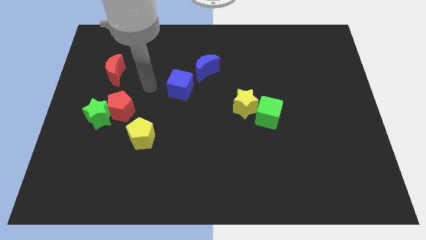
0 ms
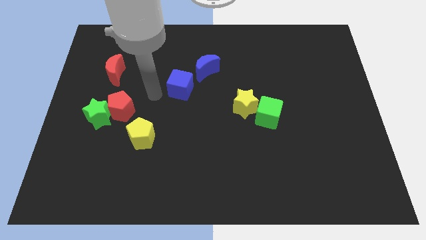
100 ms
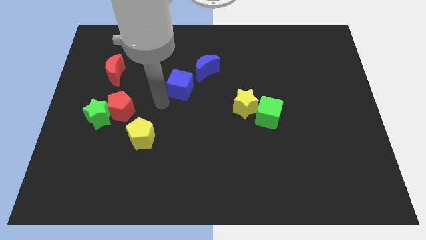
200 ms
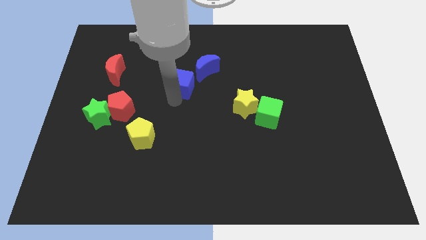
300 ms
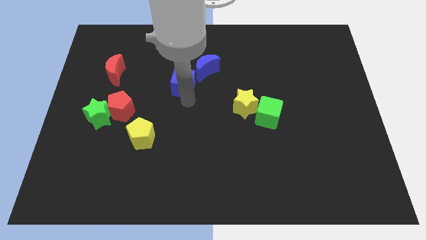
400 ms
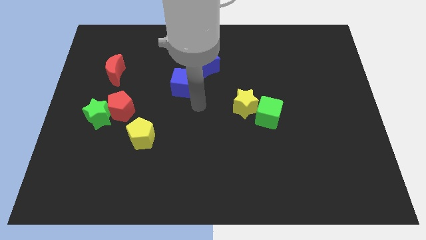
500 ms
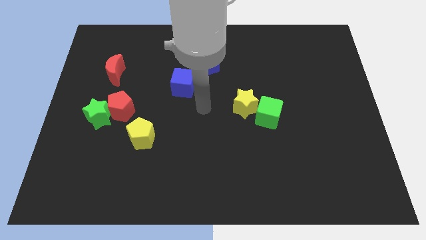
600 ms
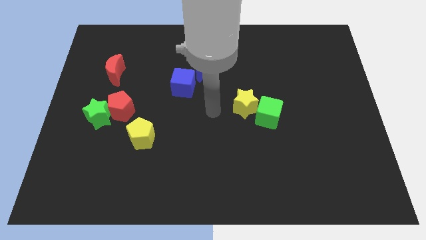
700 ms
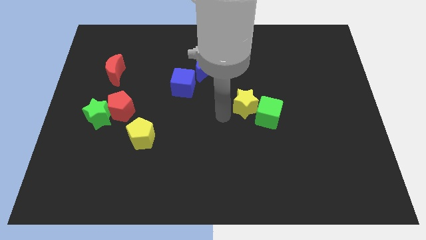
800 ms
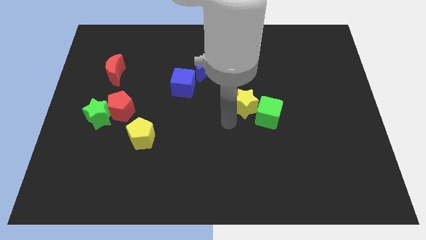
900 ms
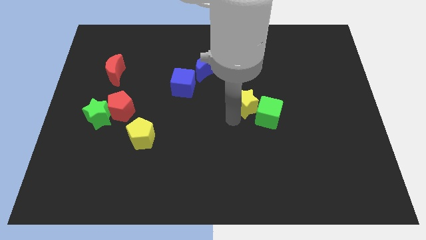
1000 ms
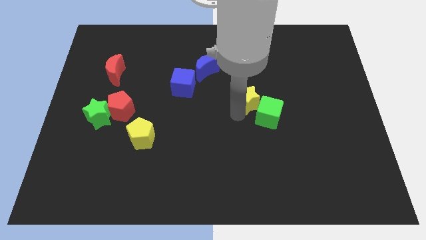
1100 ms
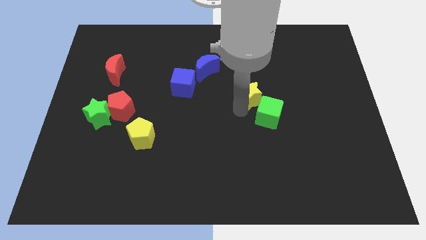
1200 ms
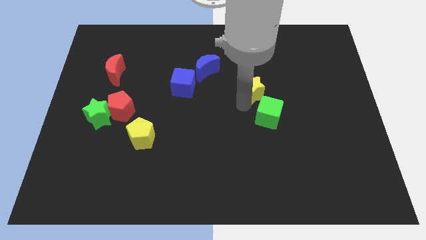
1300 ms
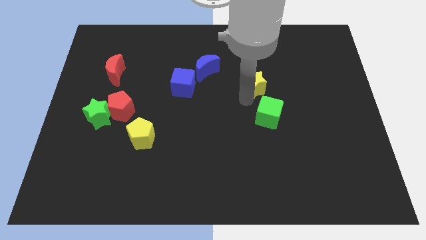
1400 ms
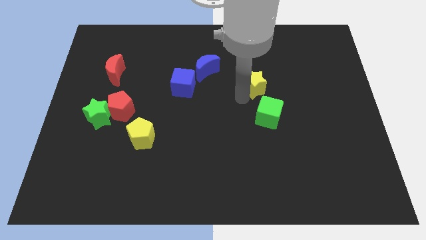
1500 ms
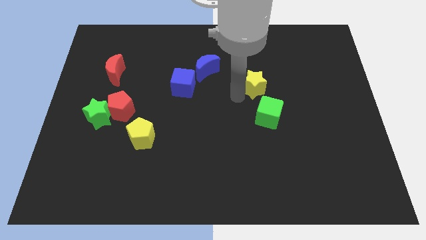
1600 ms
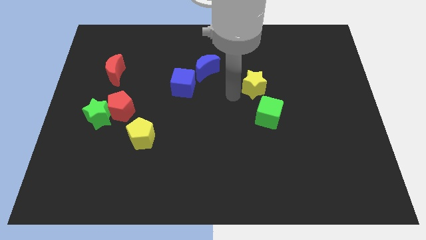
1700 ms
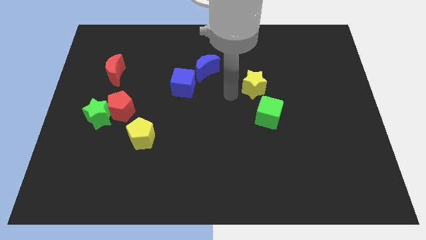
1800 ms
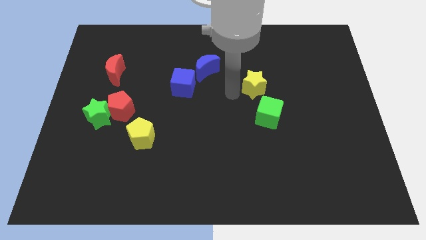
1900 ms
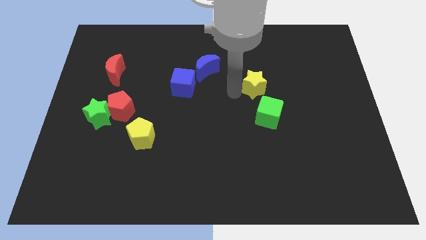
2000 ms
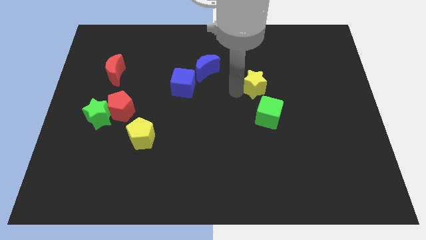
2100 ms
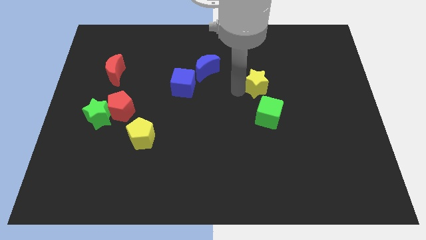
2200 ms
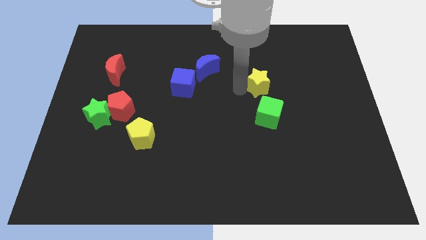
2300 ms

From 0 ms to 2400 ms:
slightly slide the yellow star upwards and then right

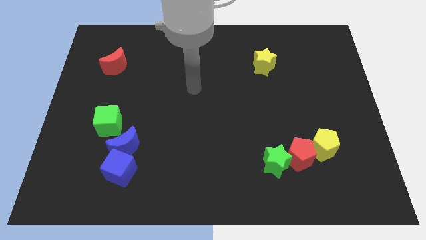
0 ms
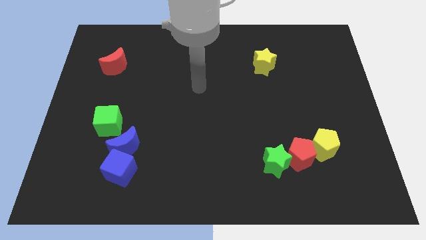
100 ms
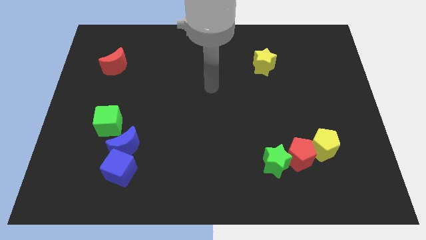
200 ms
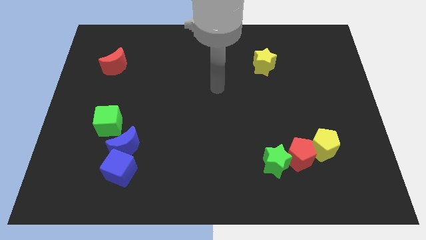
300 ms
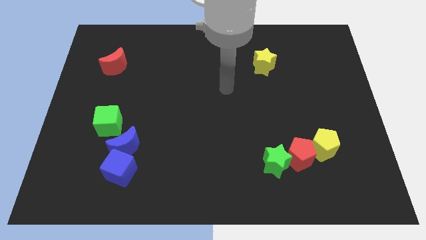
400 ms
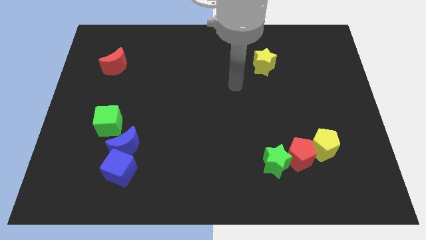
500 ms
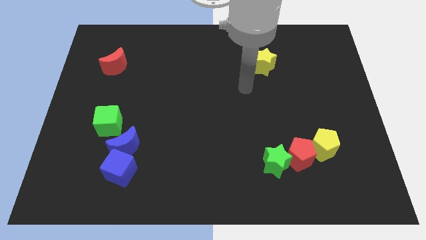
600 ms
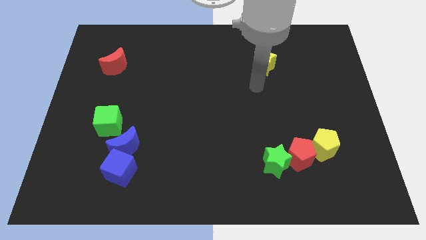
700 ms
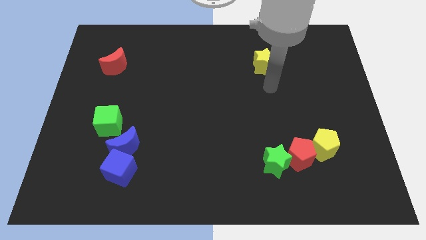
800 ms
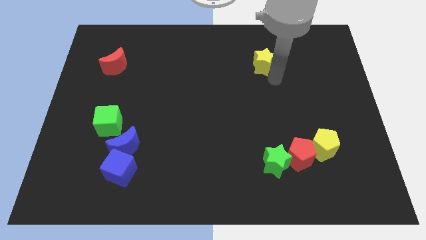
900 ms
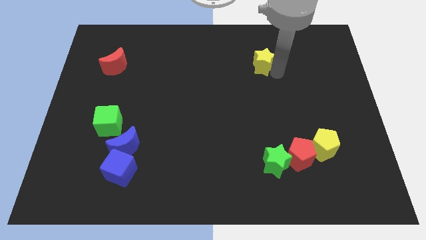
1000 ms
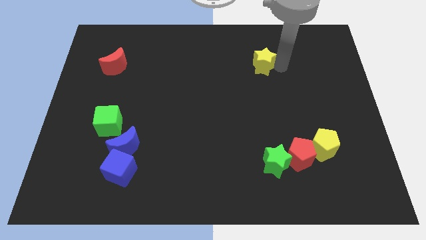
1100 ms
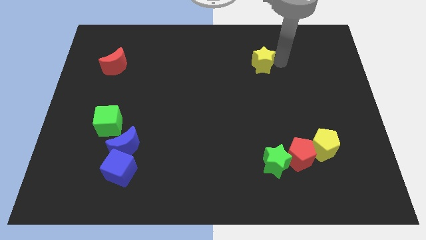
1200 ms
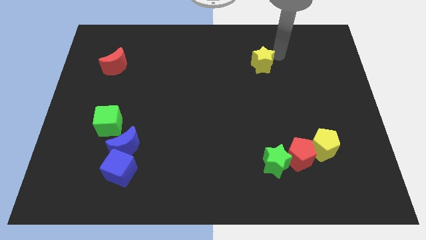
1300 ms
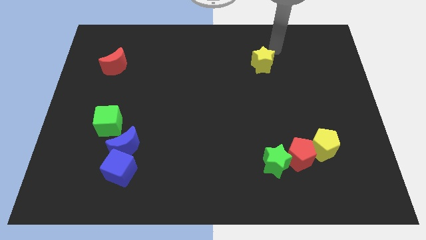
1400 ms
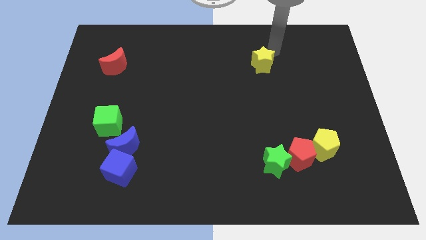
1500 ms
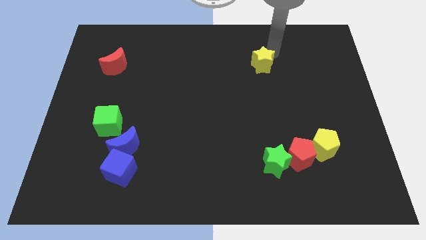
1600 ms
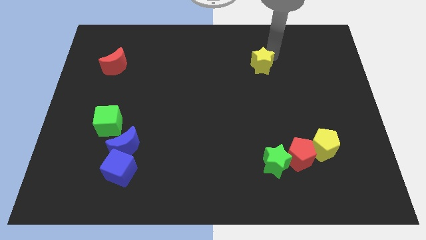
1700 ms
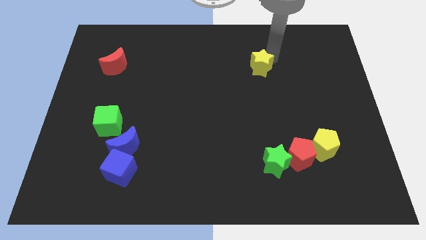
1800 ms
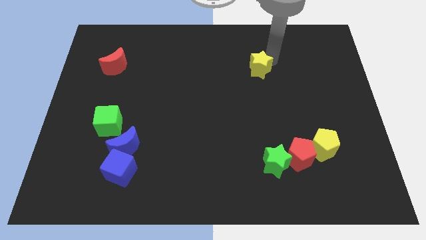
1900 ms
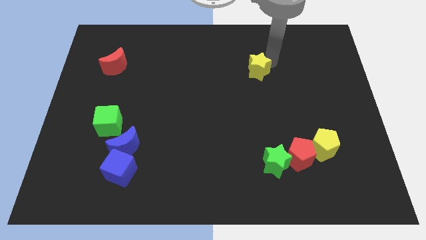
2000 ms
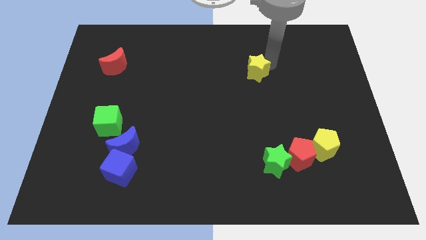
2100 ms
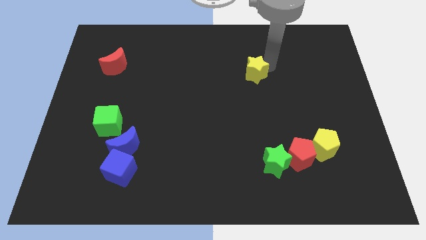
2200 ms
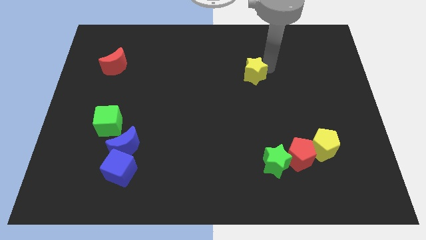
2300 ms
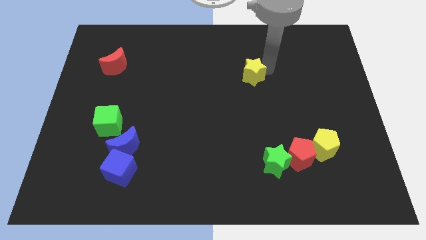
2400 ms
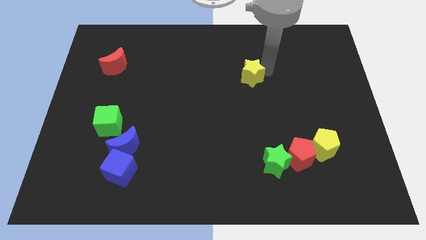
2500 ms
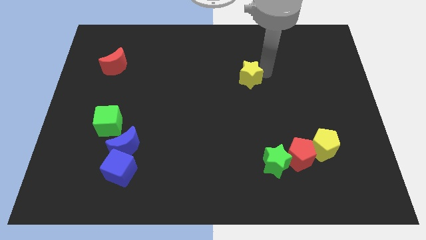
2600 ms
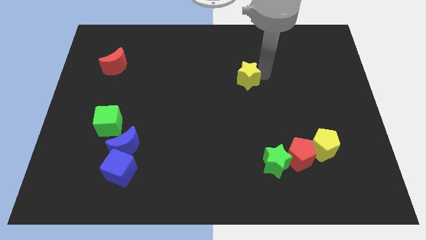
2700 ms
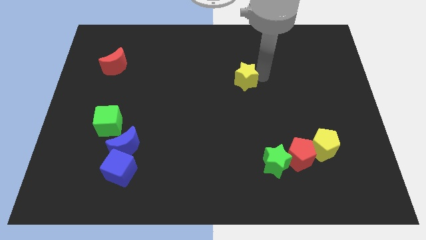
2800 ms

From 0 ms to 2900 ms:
push the yellow star diagonally downwards and left a bit

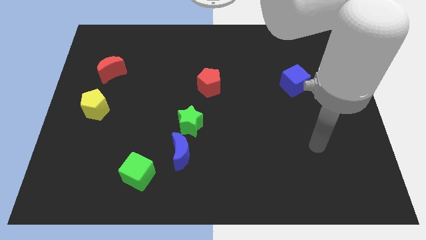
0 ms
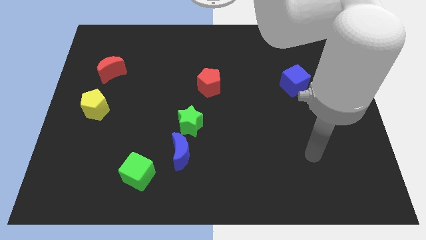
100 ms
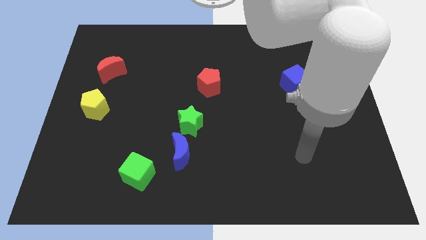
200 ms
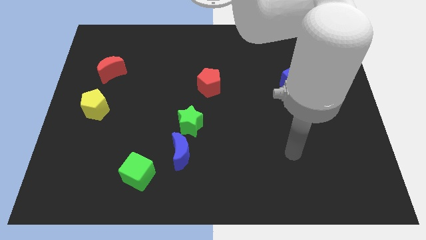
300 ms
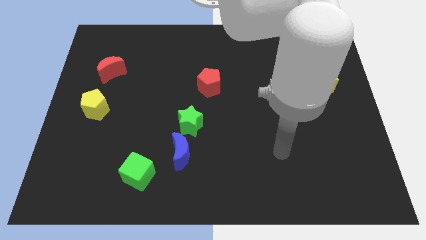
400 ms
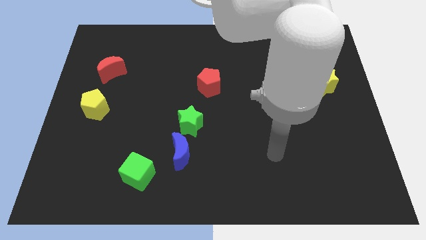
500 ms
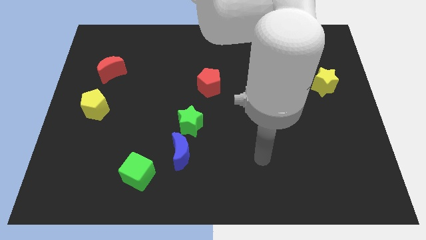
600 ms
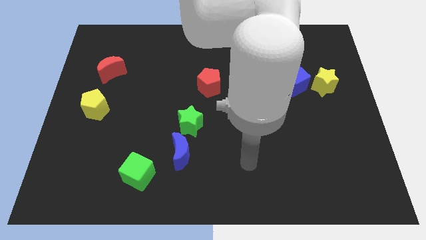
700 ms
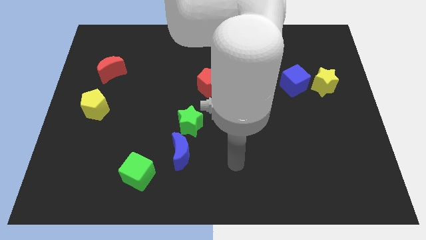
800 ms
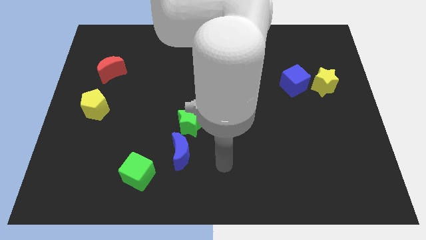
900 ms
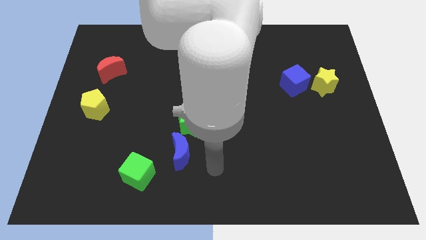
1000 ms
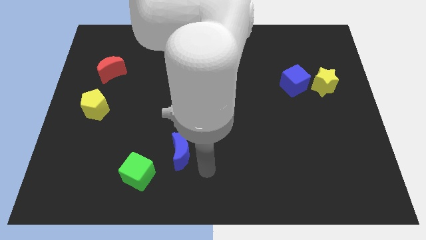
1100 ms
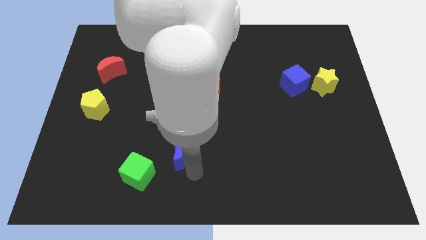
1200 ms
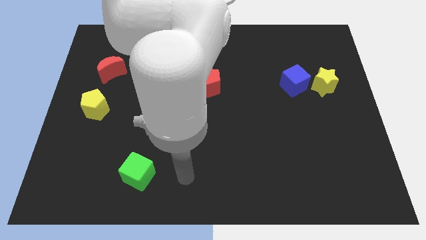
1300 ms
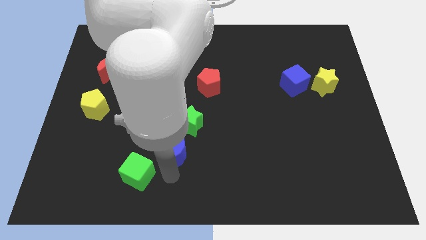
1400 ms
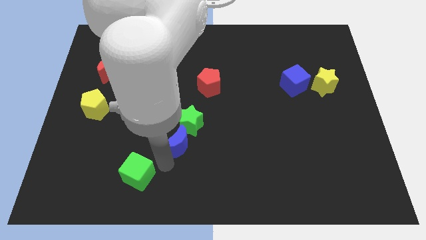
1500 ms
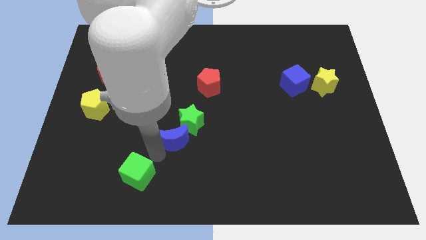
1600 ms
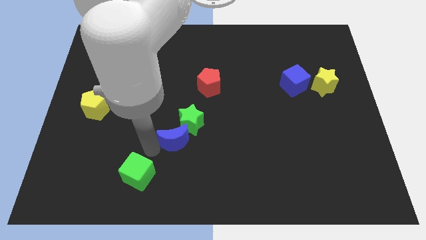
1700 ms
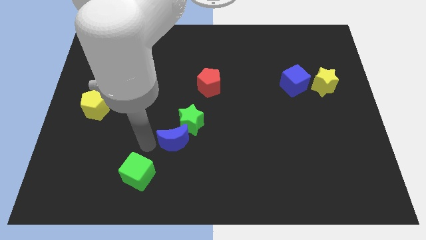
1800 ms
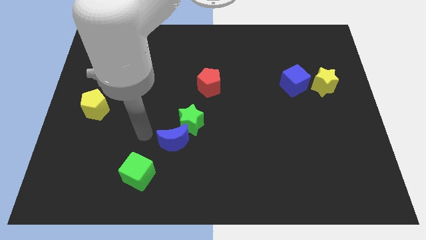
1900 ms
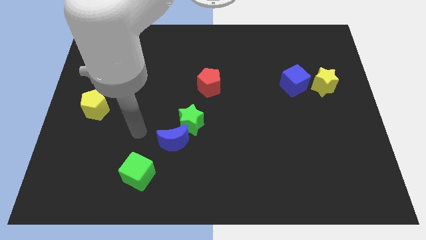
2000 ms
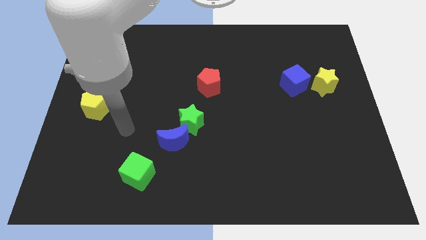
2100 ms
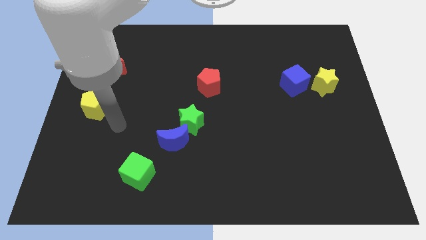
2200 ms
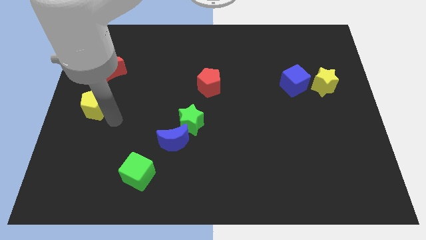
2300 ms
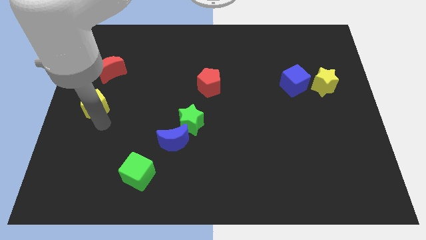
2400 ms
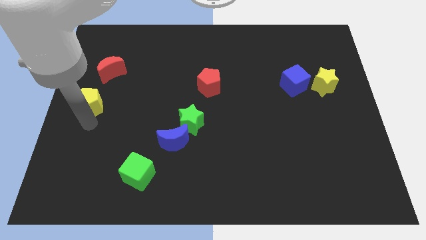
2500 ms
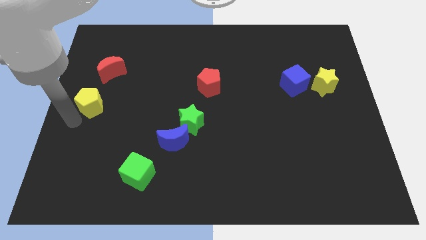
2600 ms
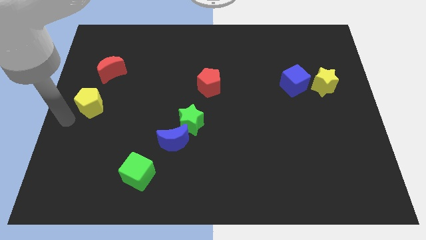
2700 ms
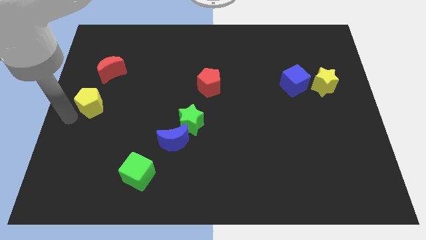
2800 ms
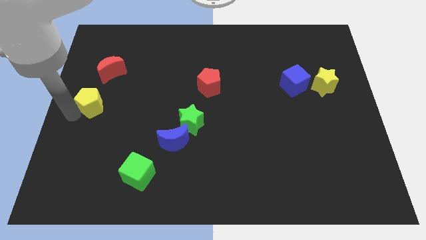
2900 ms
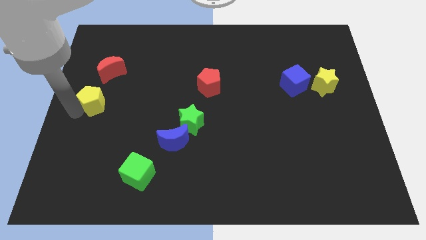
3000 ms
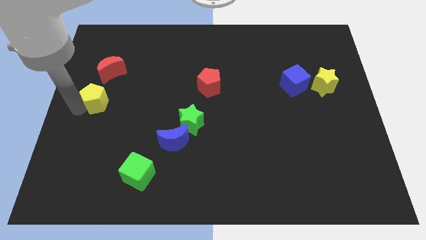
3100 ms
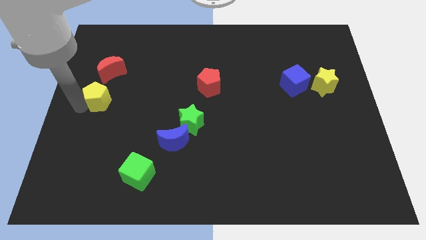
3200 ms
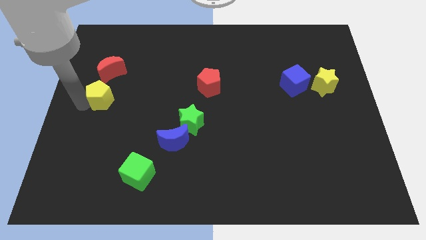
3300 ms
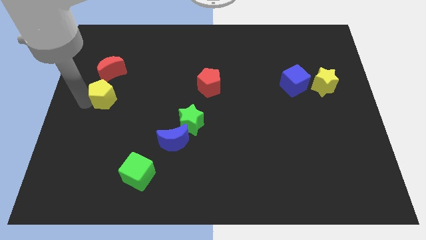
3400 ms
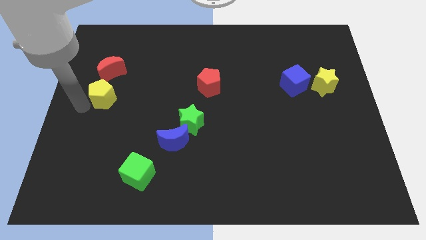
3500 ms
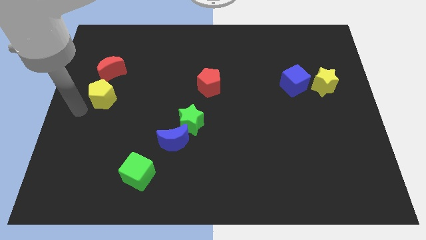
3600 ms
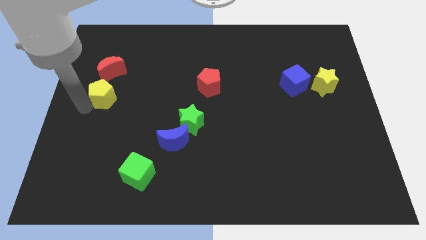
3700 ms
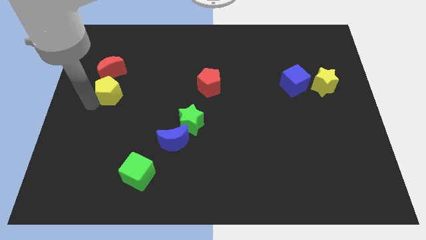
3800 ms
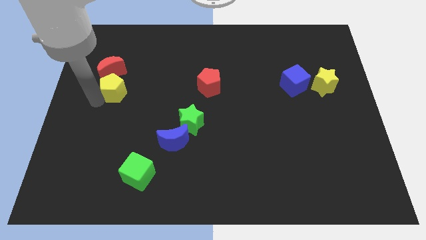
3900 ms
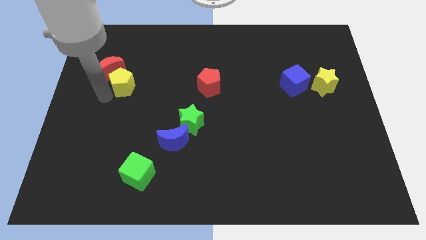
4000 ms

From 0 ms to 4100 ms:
move the yellow pentagon upwards and right diagonally a bit
